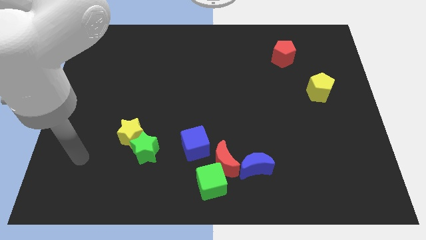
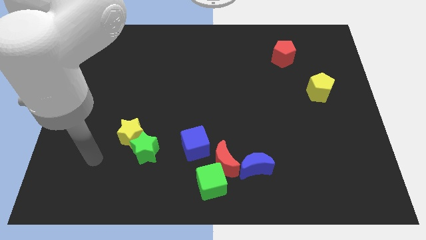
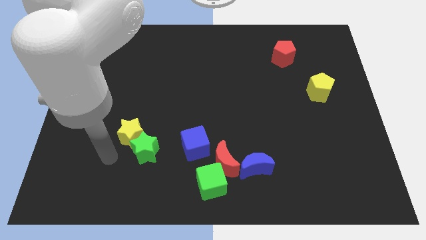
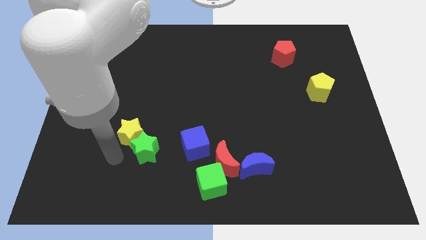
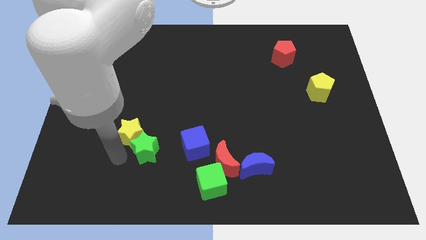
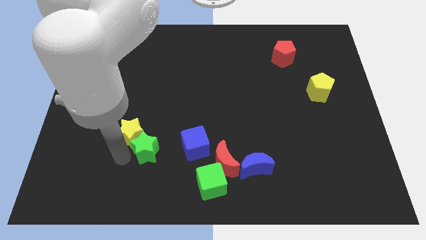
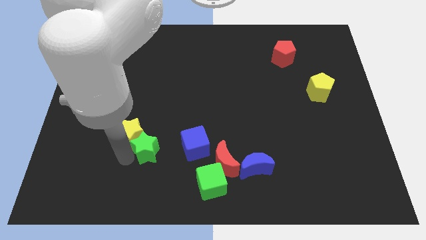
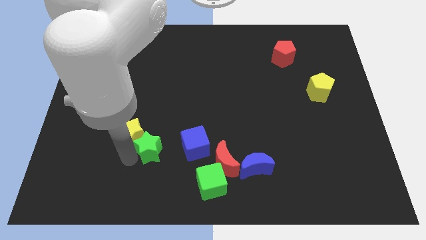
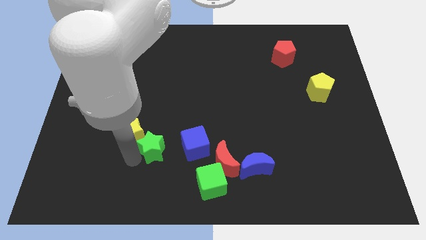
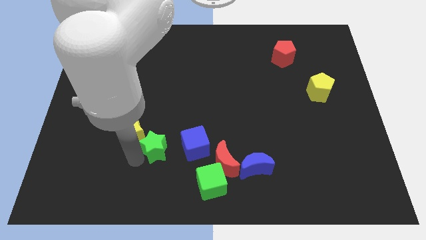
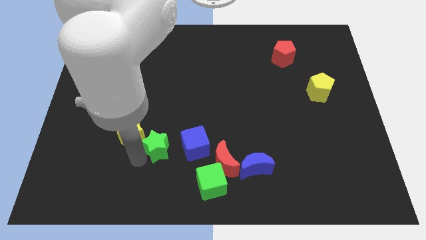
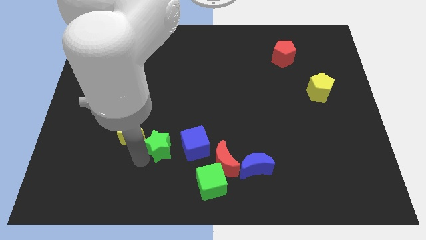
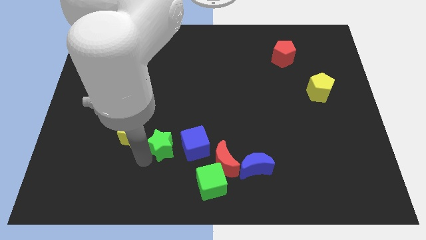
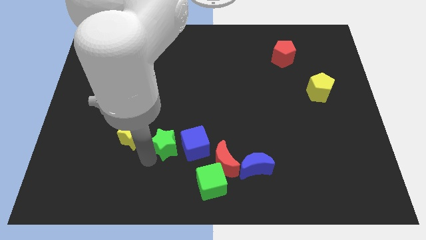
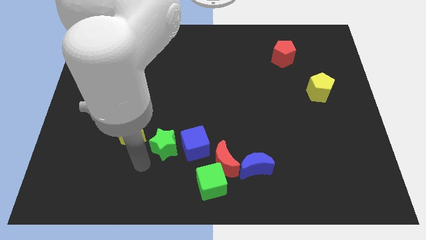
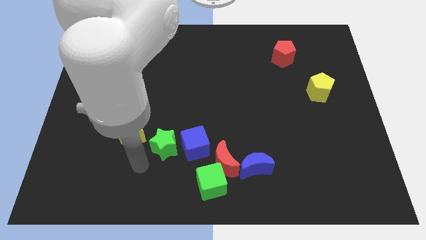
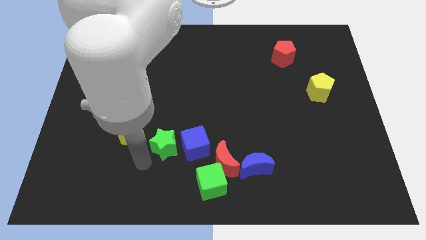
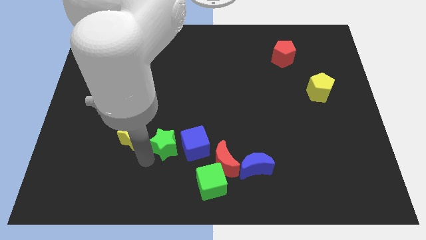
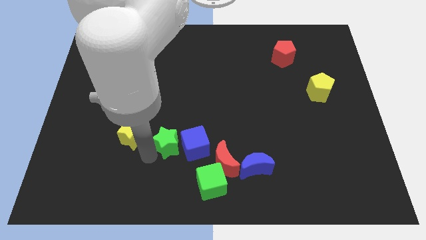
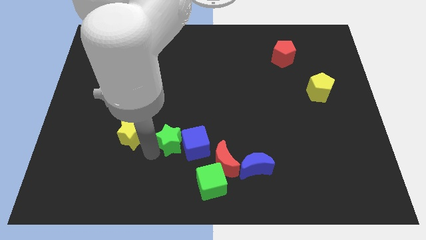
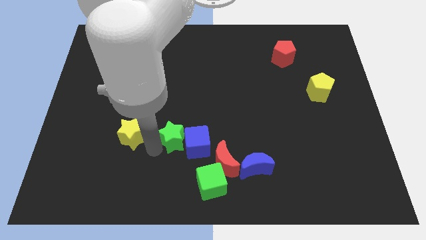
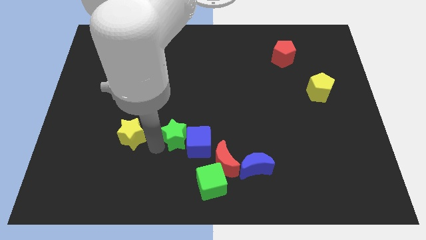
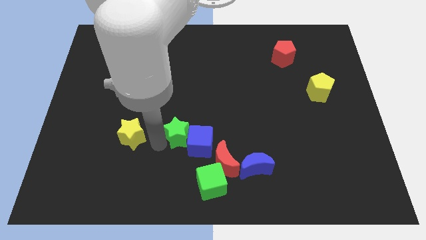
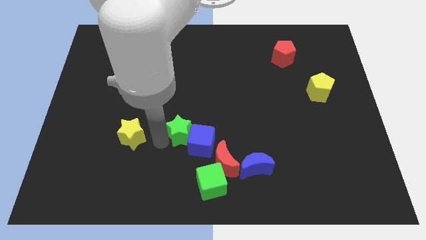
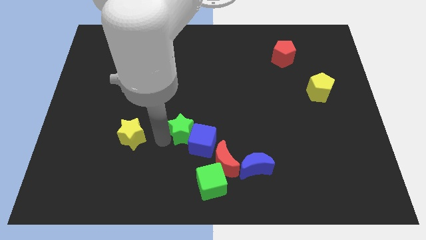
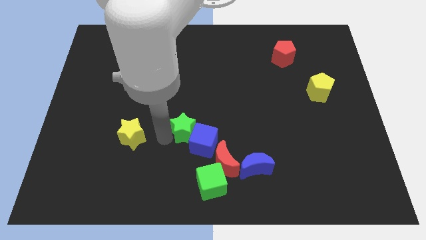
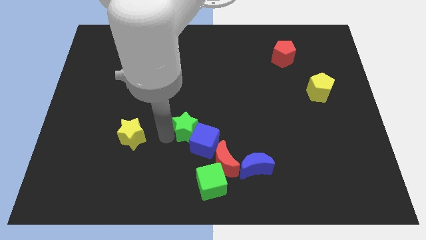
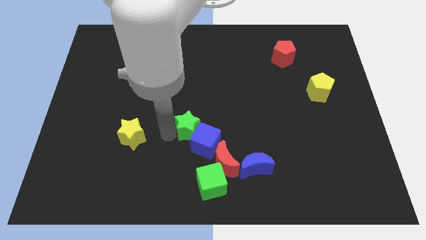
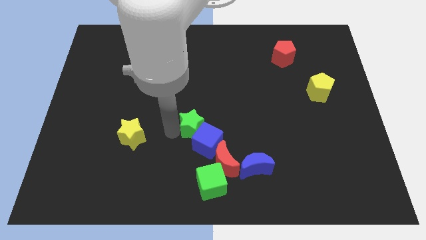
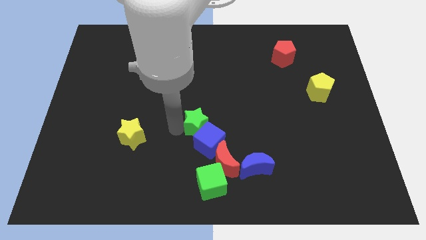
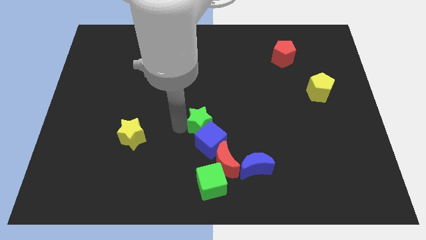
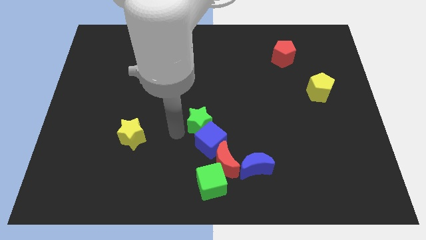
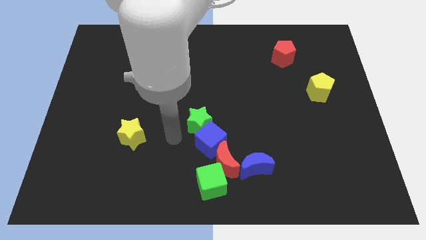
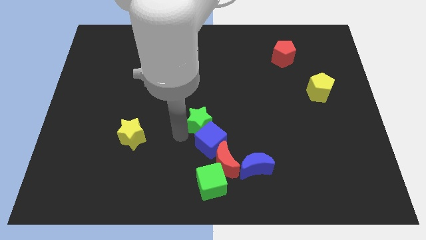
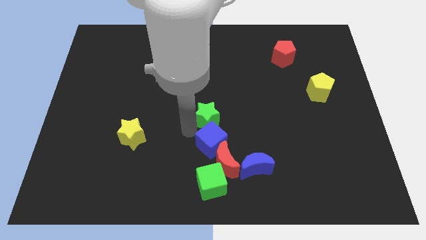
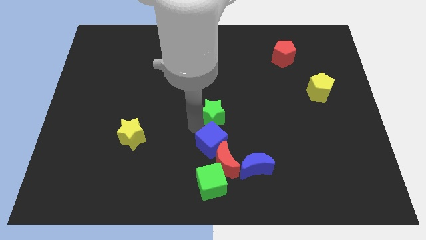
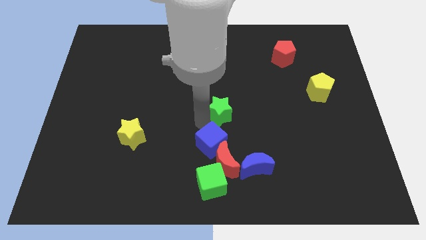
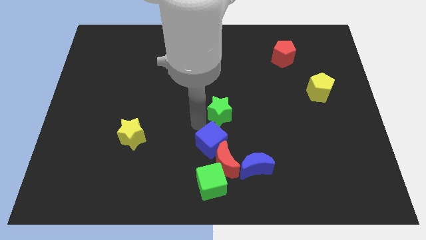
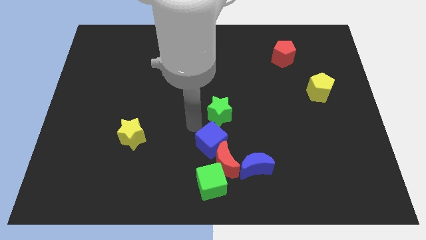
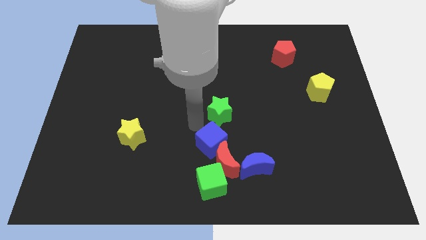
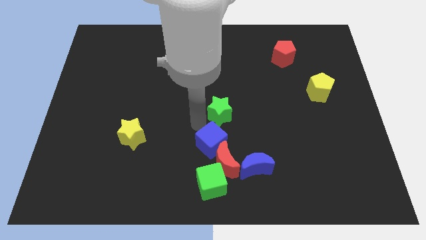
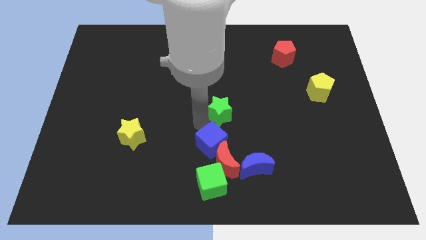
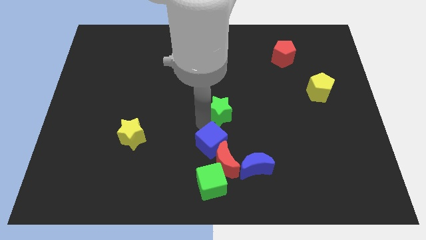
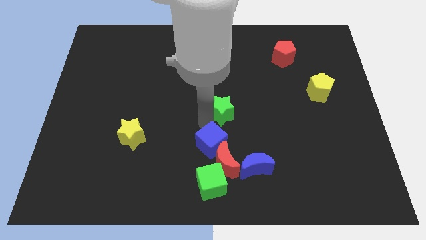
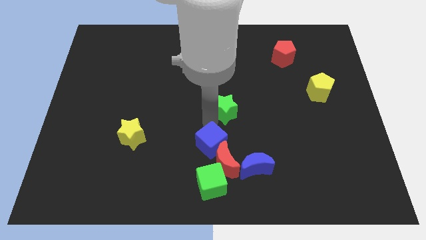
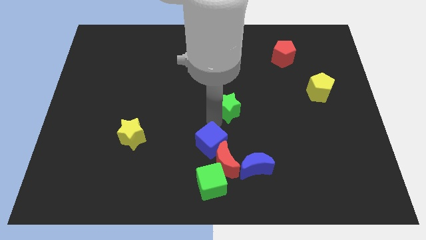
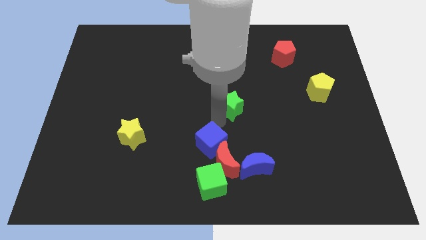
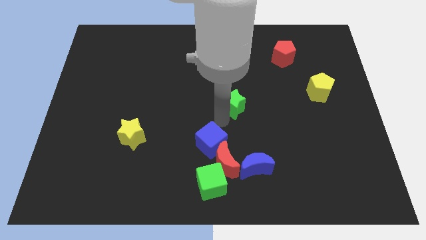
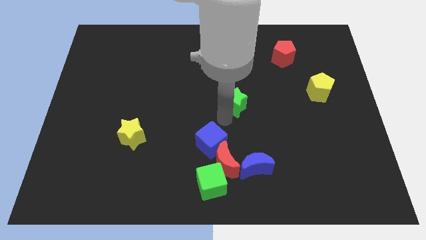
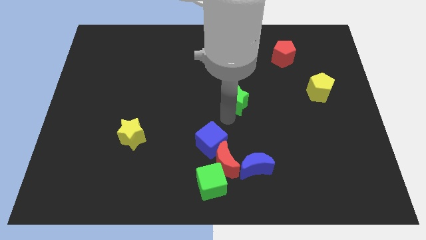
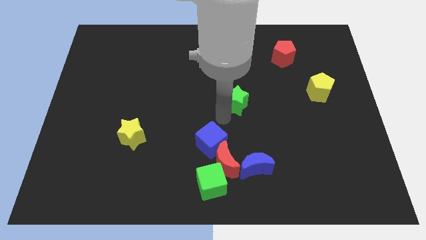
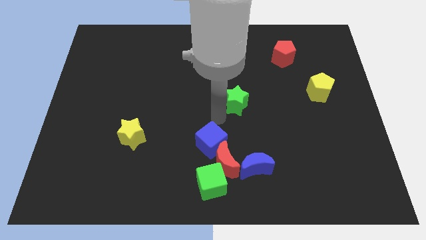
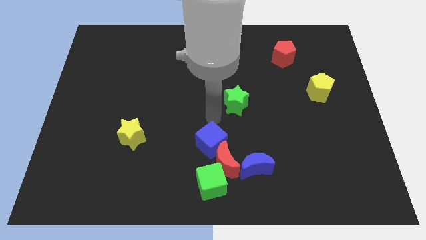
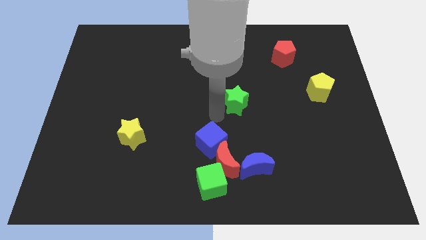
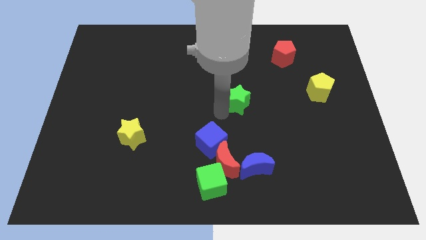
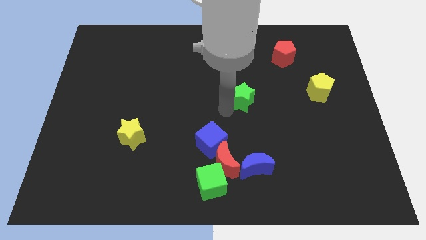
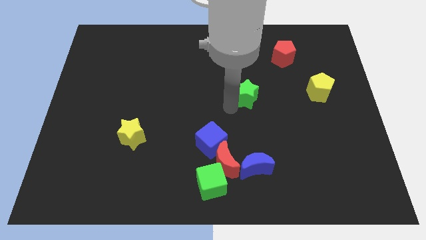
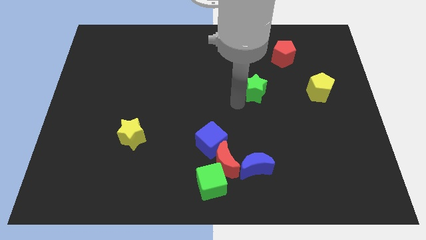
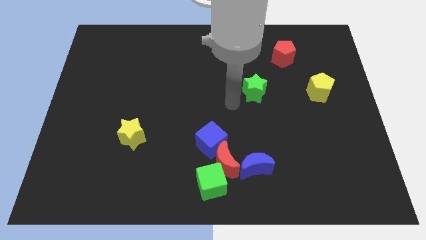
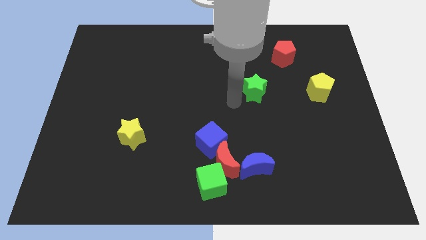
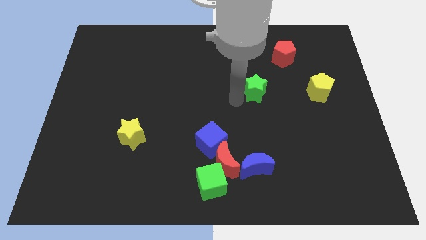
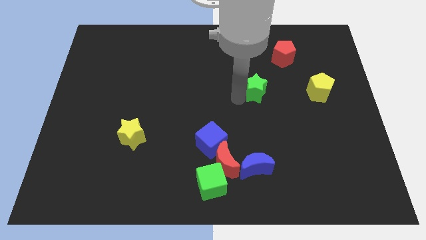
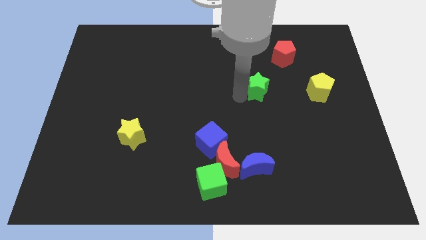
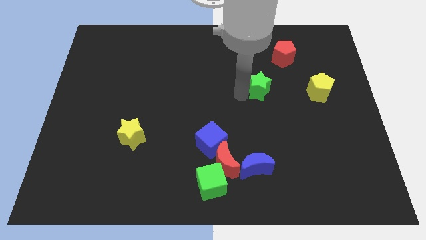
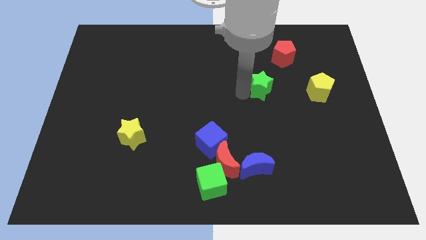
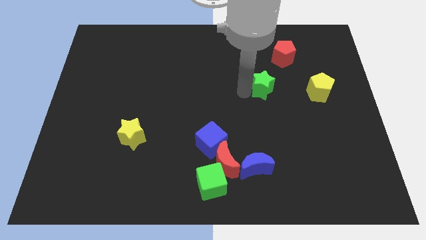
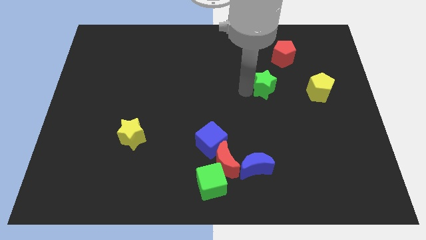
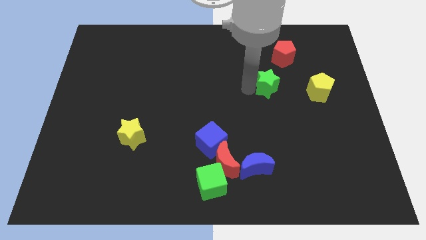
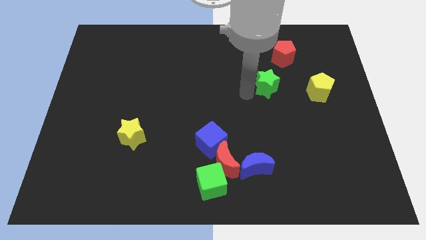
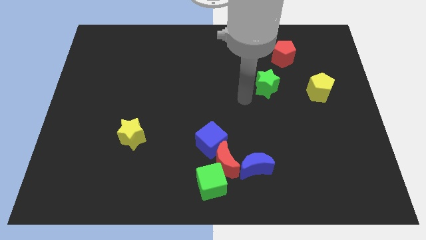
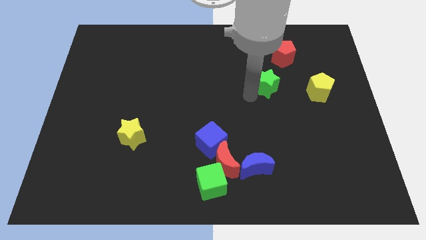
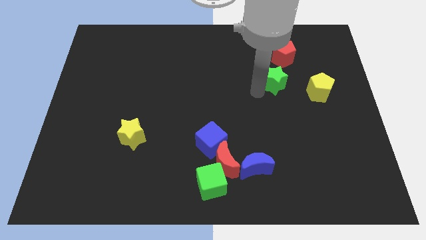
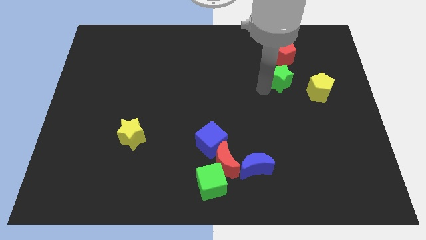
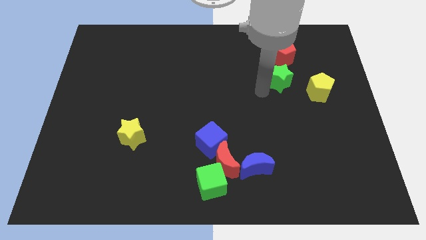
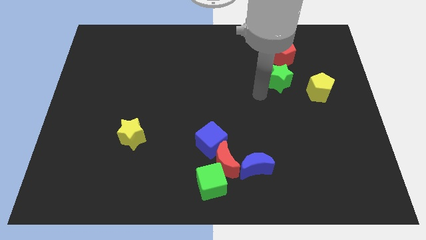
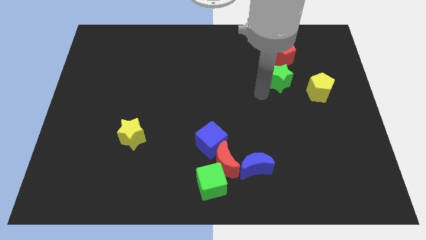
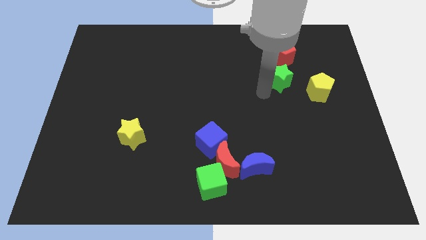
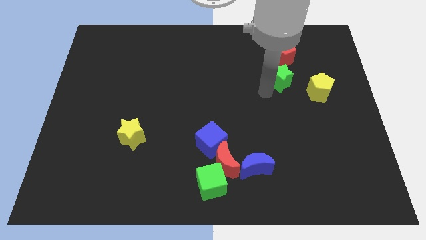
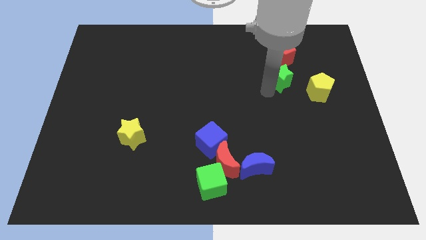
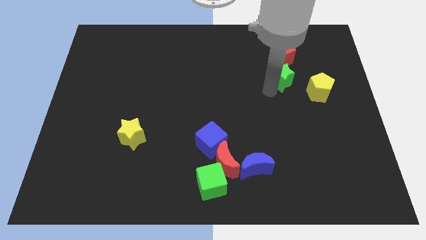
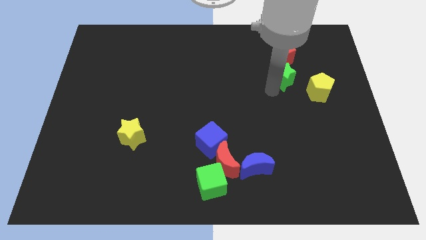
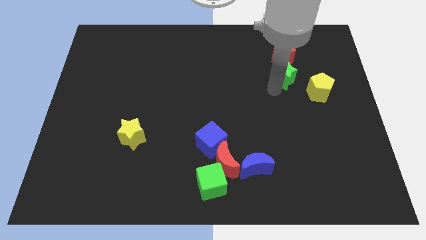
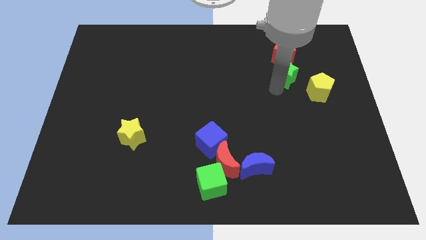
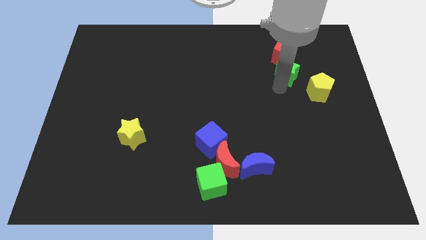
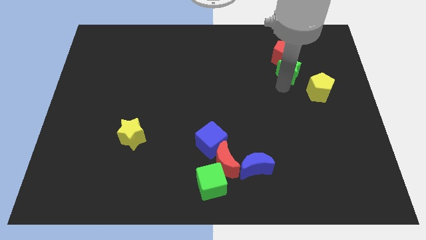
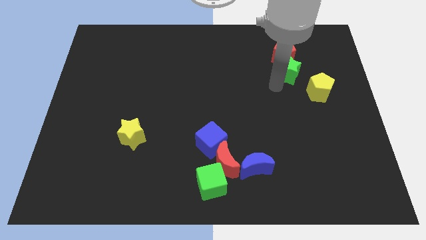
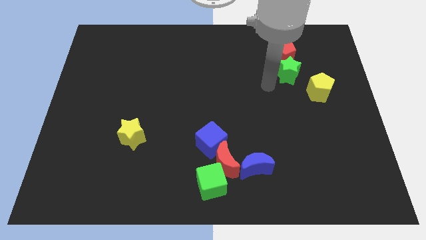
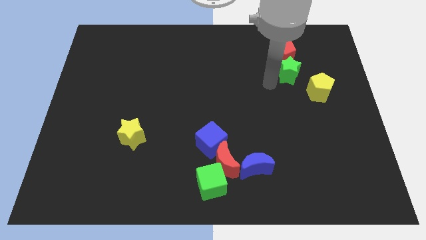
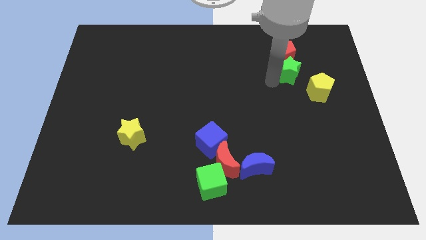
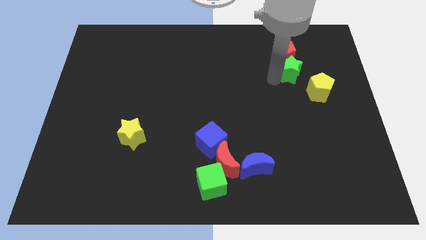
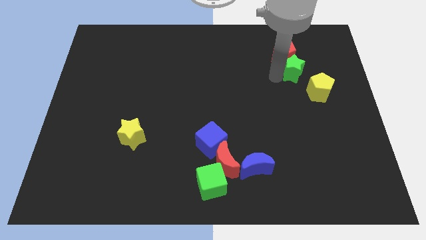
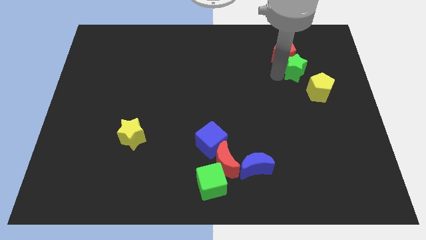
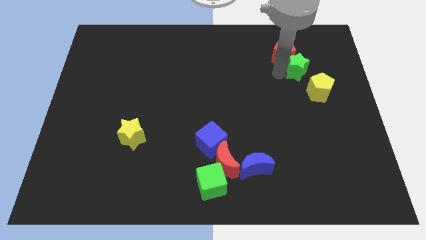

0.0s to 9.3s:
put the green star to the top of the yellow pentagon
